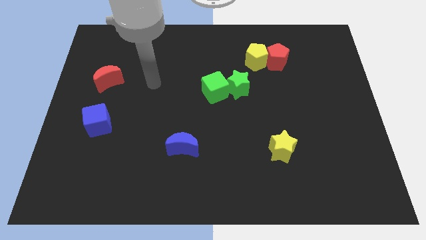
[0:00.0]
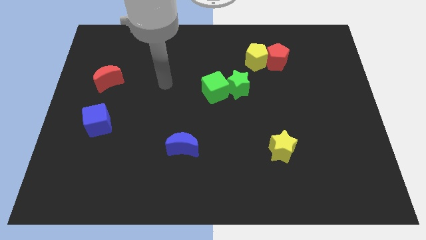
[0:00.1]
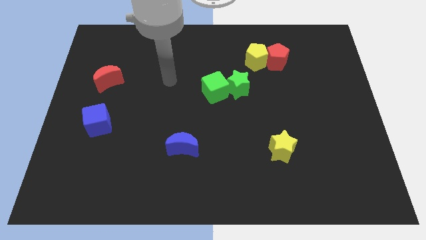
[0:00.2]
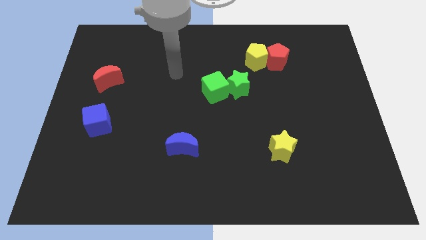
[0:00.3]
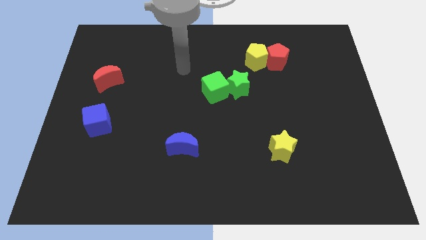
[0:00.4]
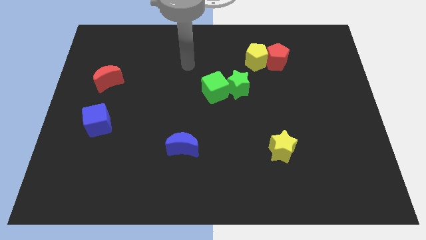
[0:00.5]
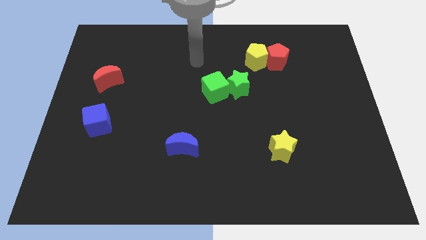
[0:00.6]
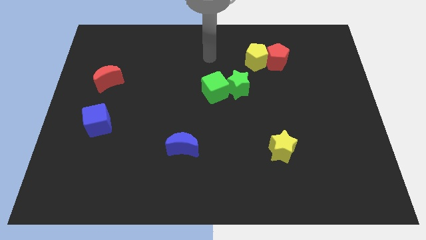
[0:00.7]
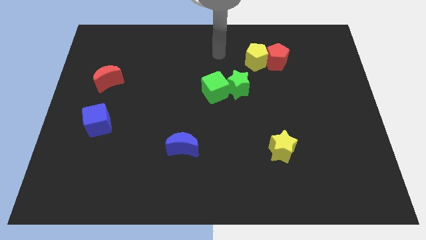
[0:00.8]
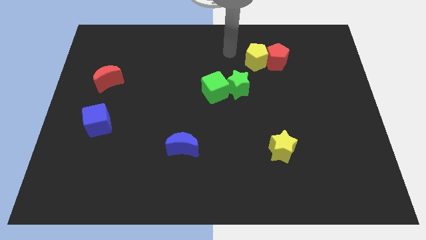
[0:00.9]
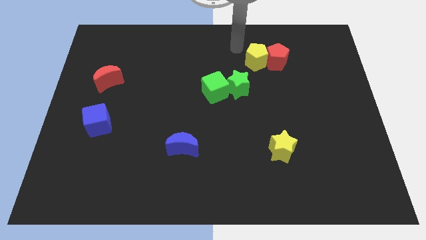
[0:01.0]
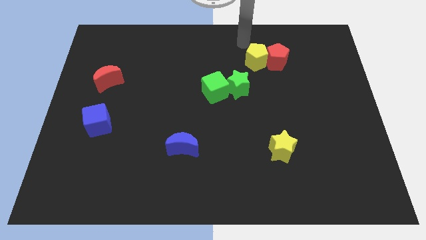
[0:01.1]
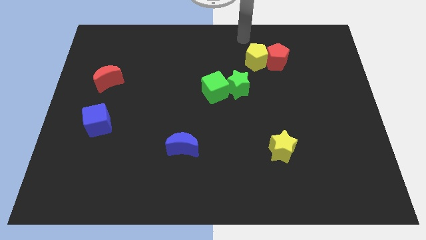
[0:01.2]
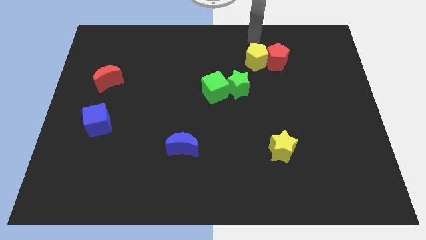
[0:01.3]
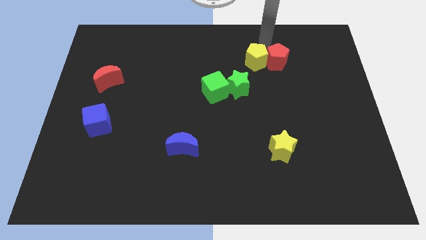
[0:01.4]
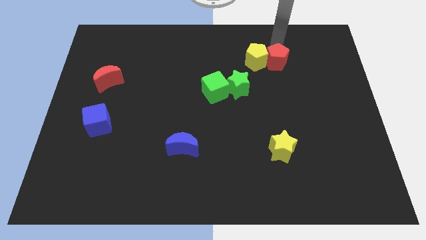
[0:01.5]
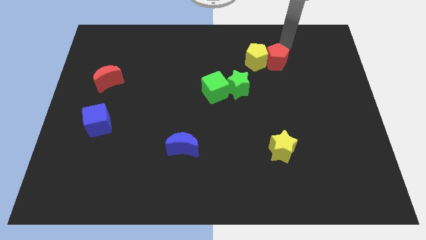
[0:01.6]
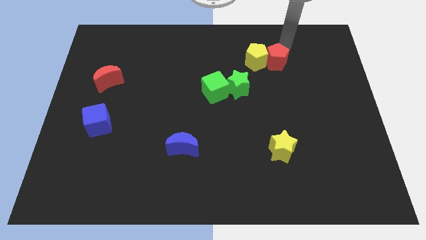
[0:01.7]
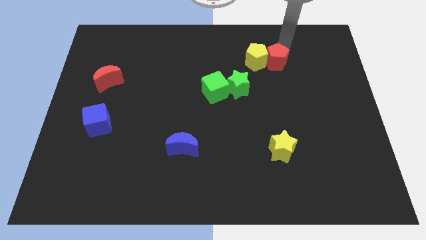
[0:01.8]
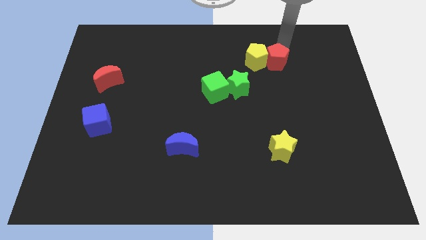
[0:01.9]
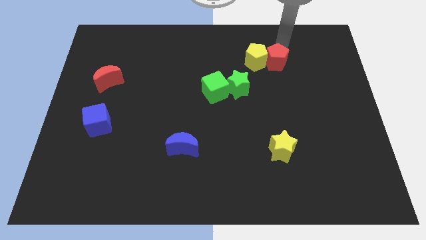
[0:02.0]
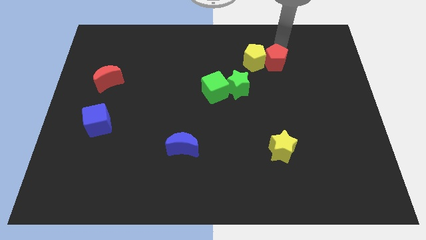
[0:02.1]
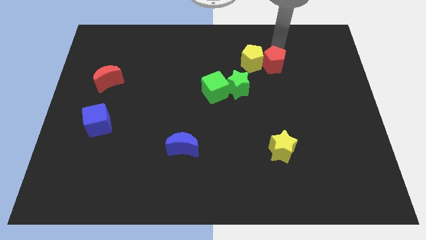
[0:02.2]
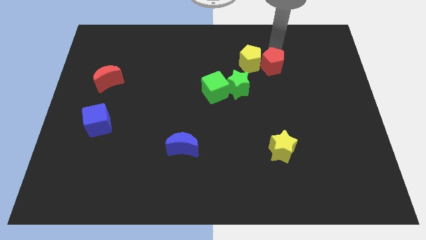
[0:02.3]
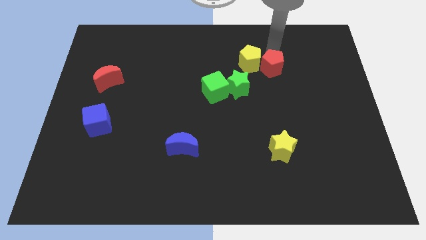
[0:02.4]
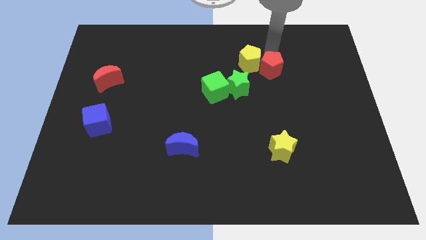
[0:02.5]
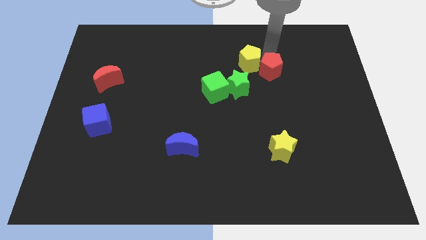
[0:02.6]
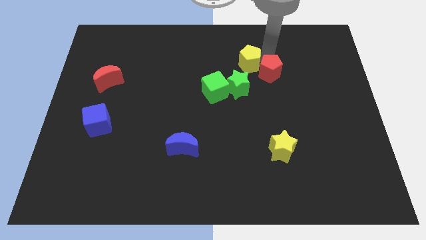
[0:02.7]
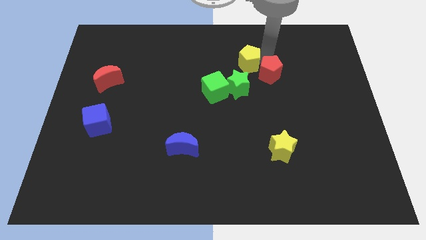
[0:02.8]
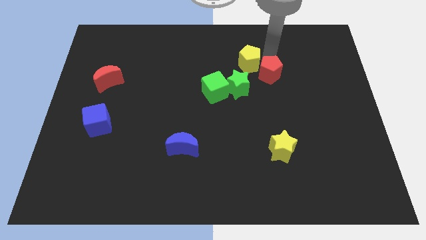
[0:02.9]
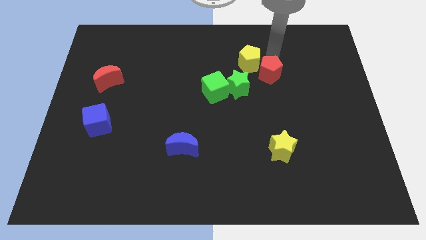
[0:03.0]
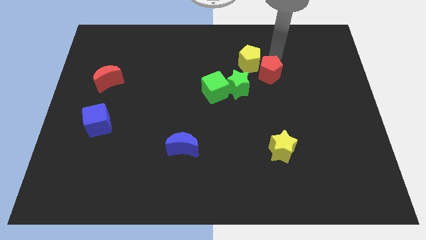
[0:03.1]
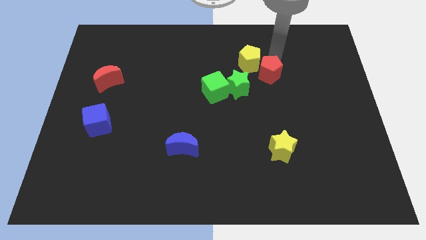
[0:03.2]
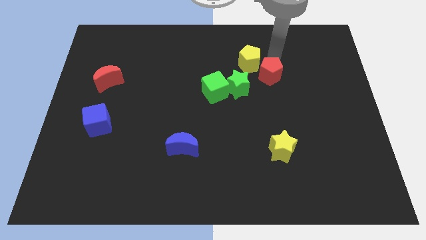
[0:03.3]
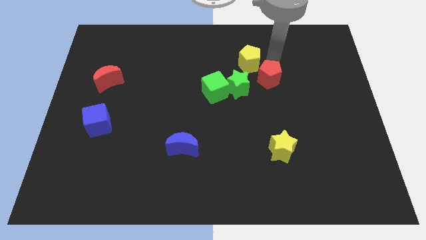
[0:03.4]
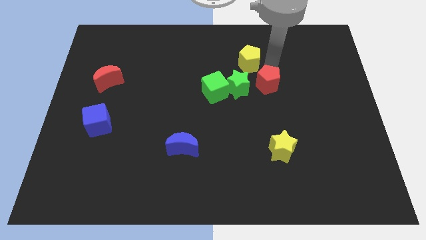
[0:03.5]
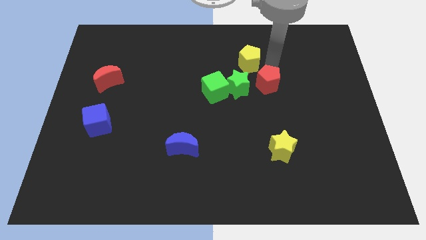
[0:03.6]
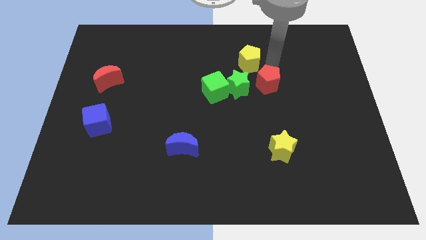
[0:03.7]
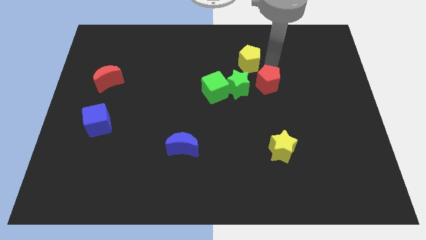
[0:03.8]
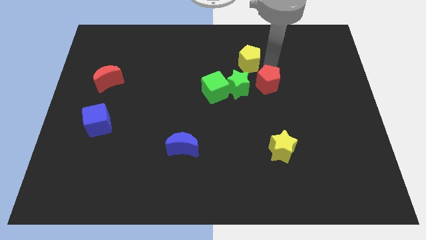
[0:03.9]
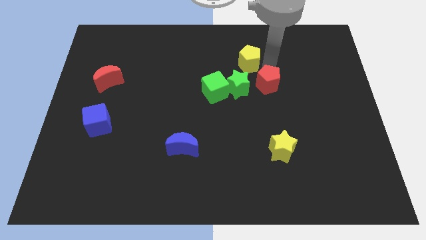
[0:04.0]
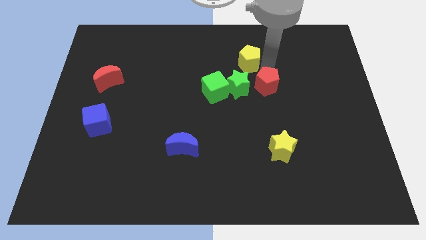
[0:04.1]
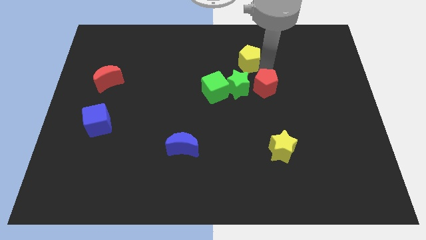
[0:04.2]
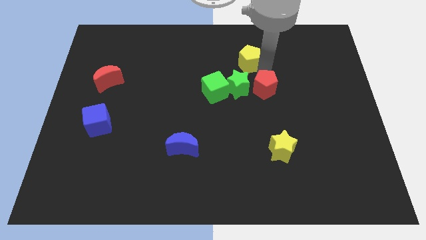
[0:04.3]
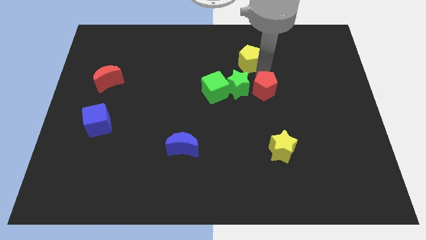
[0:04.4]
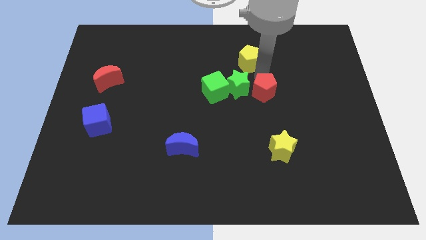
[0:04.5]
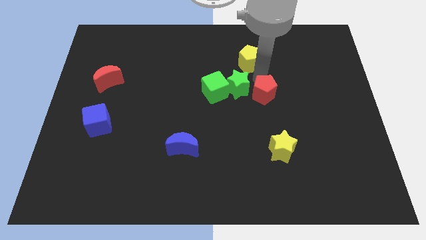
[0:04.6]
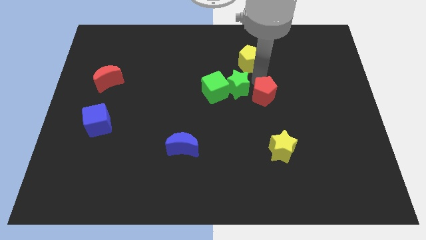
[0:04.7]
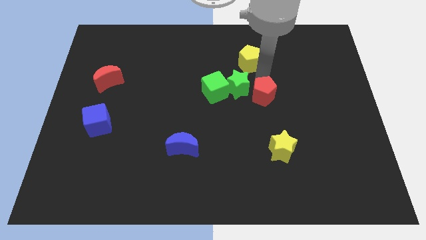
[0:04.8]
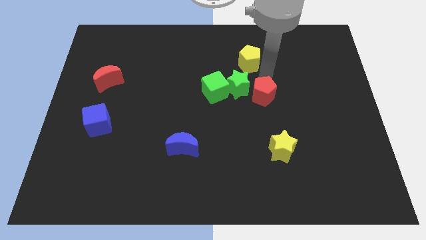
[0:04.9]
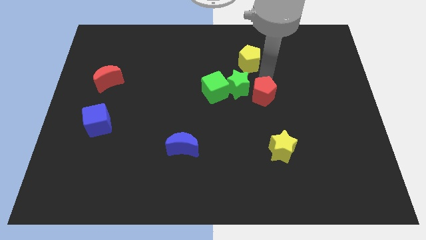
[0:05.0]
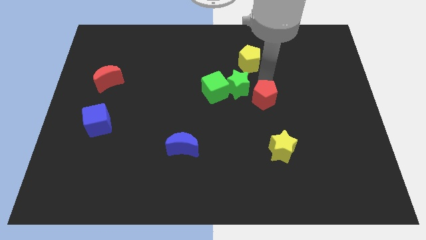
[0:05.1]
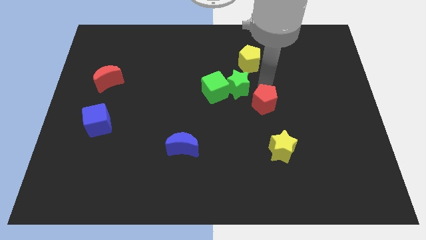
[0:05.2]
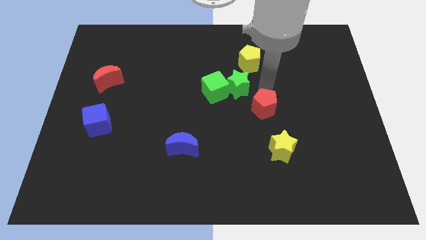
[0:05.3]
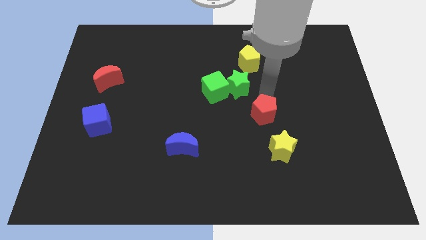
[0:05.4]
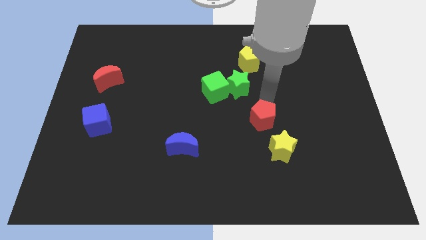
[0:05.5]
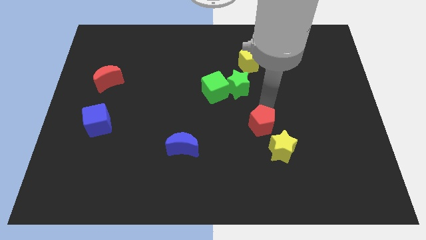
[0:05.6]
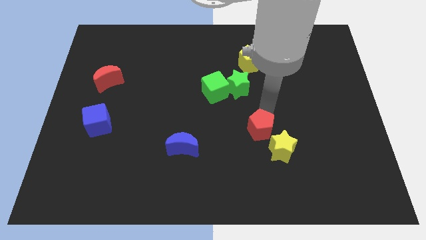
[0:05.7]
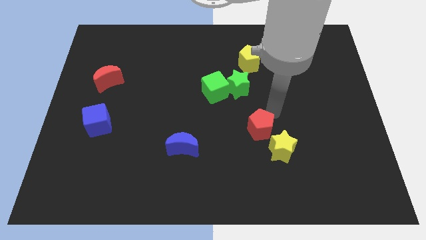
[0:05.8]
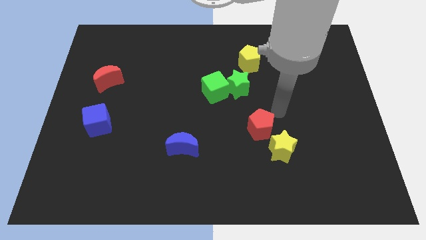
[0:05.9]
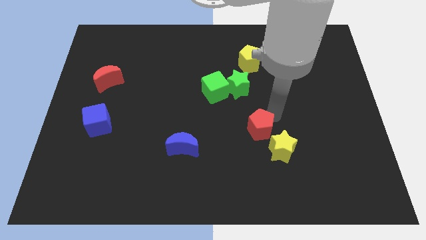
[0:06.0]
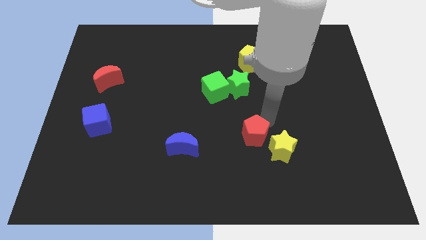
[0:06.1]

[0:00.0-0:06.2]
move the red pentagon just left of the yellow star

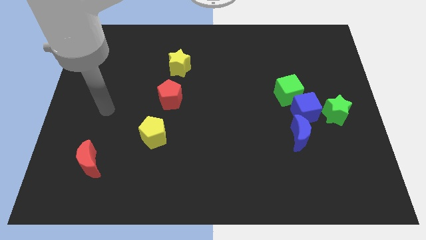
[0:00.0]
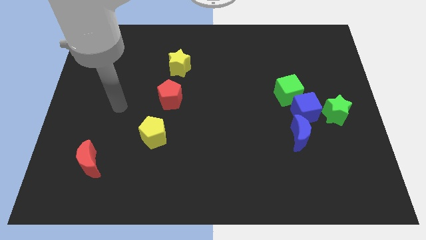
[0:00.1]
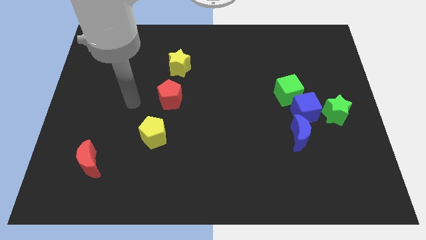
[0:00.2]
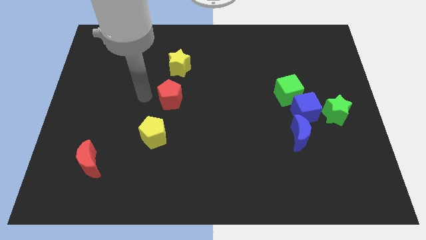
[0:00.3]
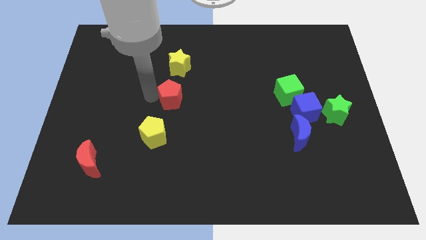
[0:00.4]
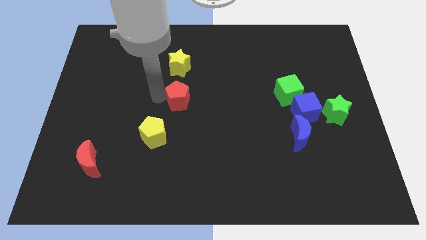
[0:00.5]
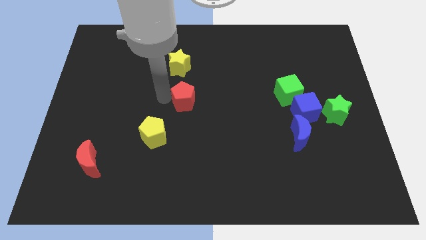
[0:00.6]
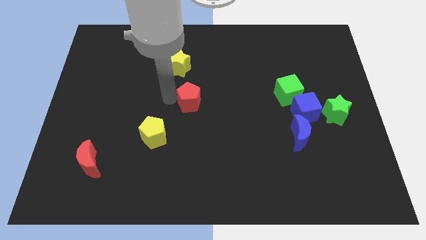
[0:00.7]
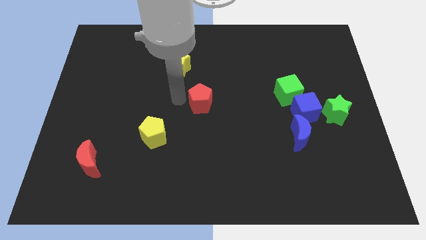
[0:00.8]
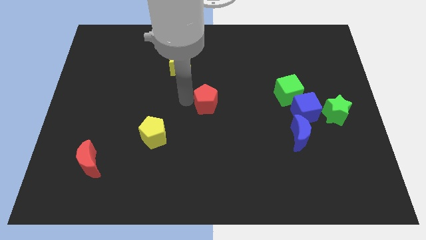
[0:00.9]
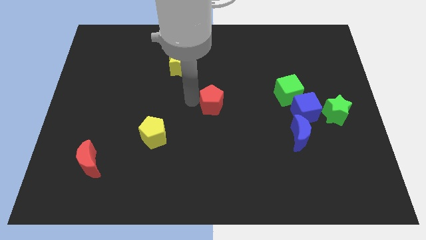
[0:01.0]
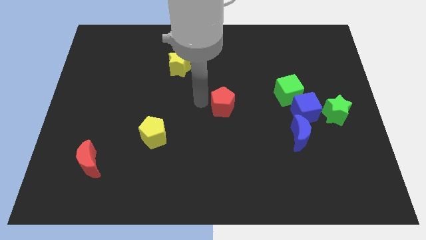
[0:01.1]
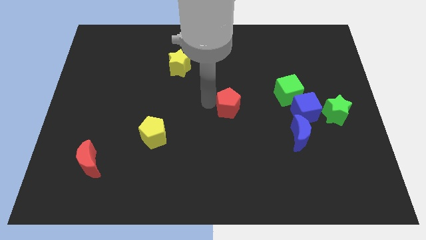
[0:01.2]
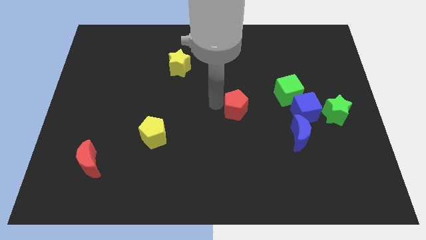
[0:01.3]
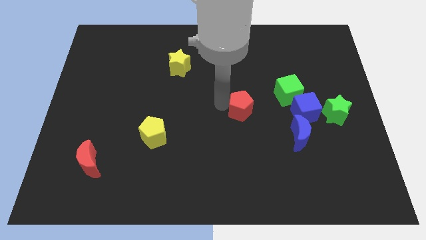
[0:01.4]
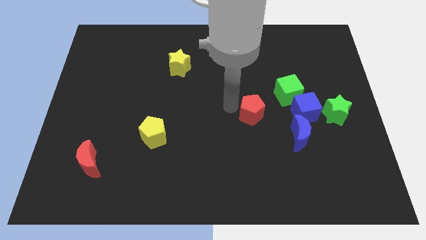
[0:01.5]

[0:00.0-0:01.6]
put the red pentagon to the top left side of the blue moon
